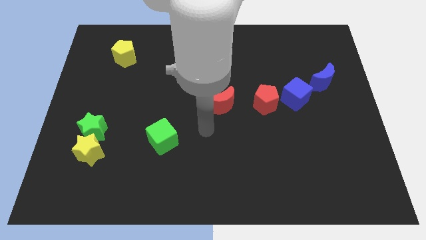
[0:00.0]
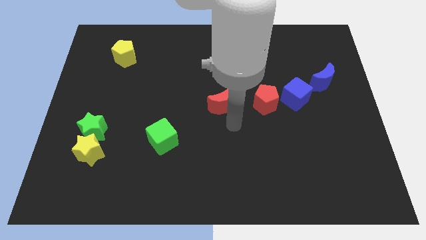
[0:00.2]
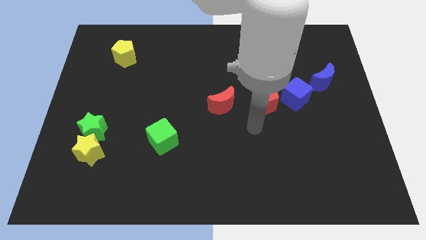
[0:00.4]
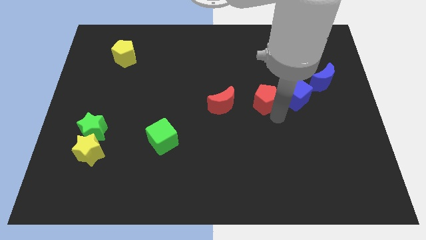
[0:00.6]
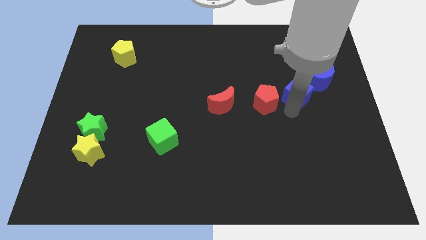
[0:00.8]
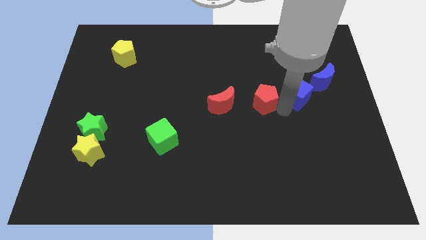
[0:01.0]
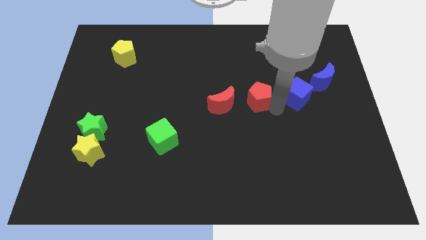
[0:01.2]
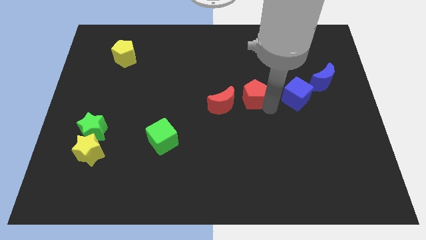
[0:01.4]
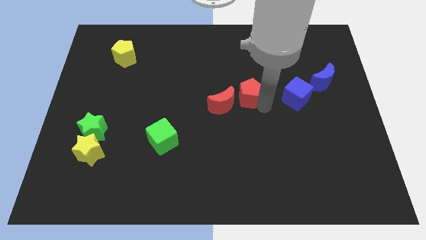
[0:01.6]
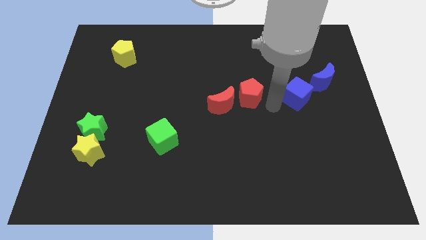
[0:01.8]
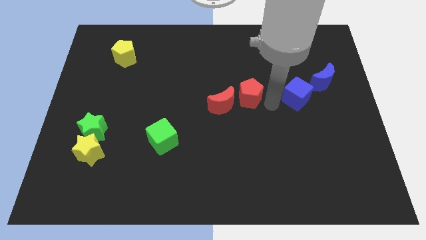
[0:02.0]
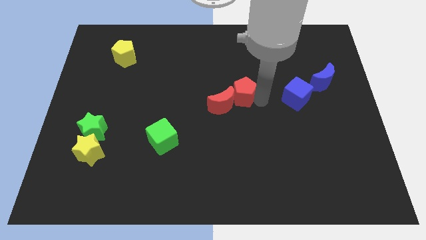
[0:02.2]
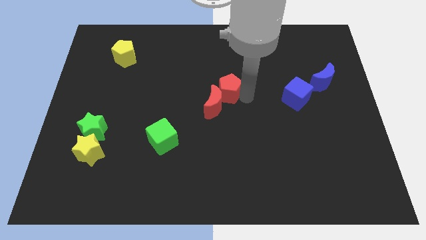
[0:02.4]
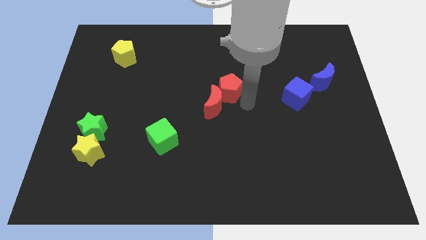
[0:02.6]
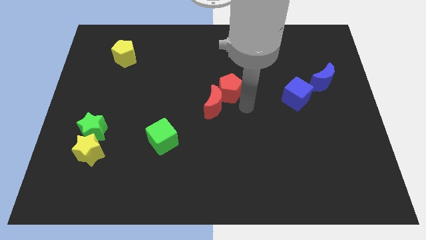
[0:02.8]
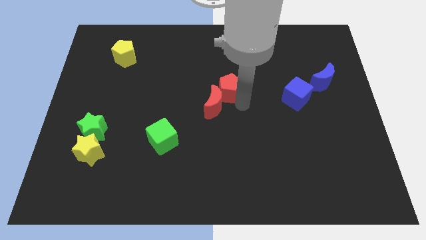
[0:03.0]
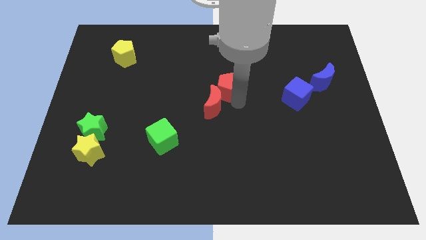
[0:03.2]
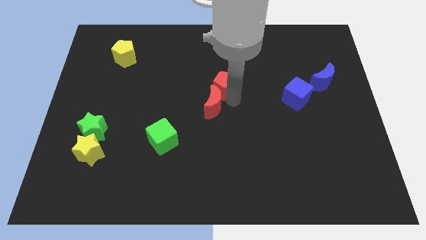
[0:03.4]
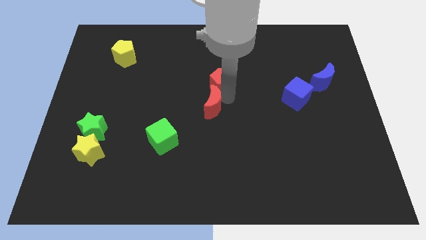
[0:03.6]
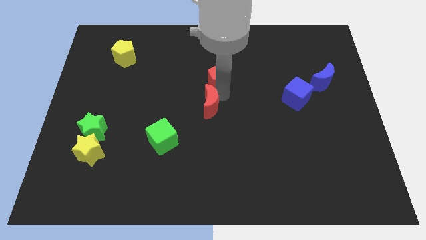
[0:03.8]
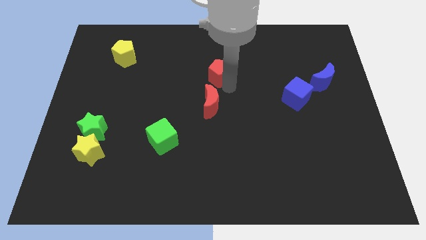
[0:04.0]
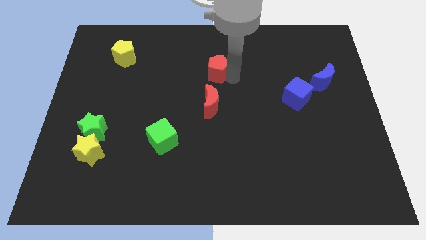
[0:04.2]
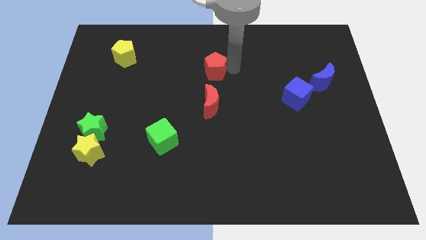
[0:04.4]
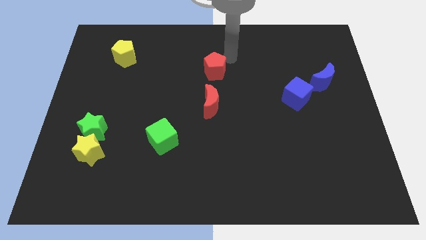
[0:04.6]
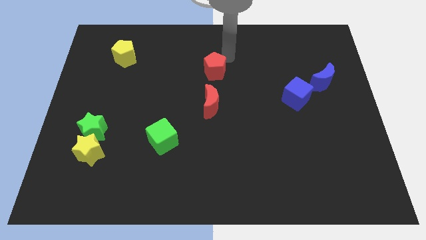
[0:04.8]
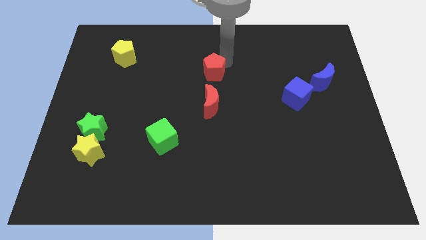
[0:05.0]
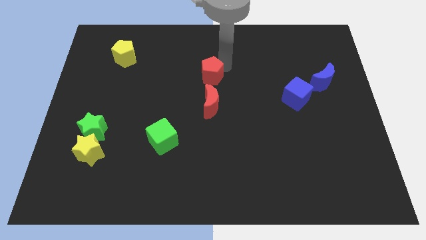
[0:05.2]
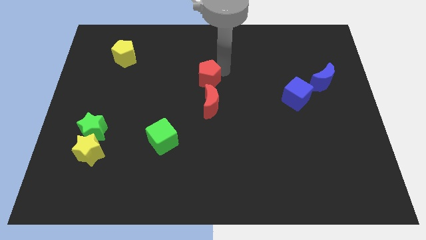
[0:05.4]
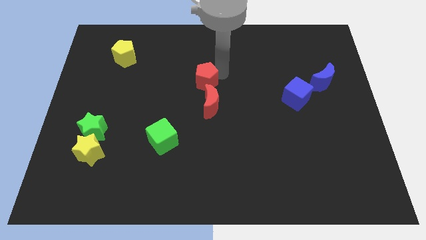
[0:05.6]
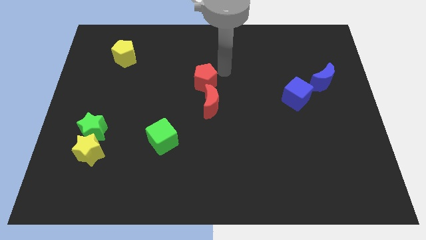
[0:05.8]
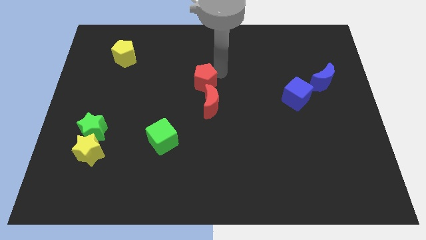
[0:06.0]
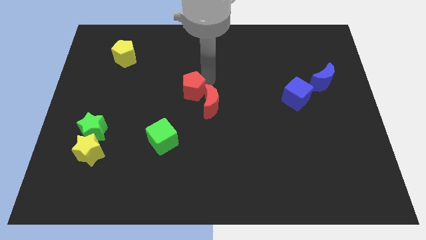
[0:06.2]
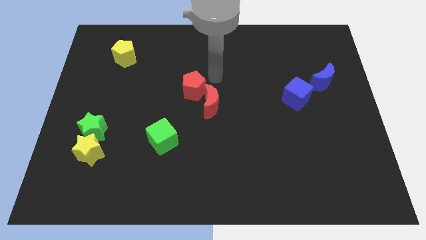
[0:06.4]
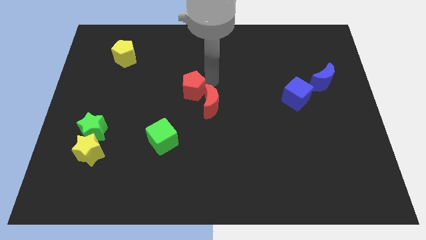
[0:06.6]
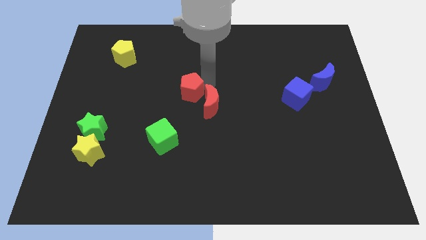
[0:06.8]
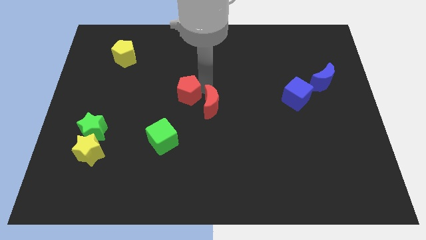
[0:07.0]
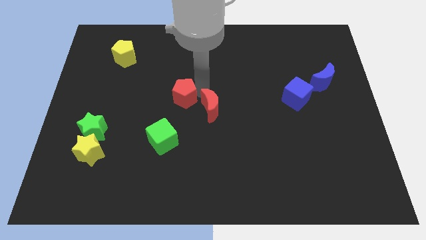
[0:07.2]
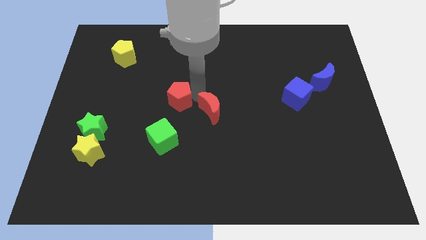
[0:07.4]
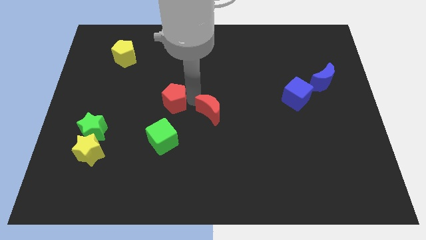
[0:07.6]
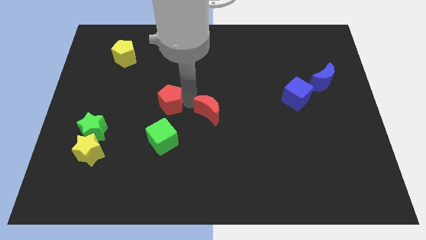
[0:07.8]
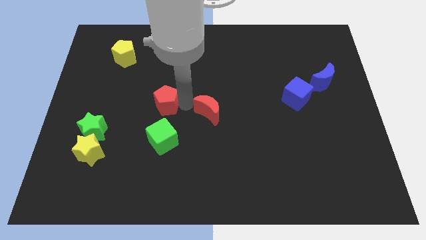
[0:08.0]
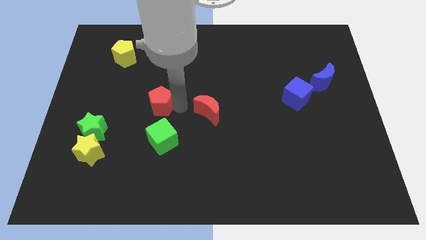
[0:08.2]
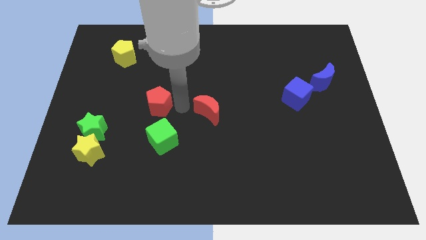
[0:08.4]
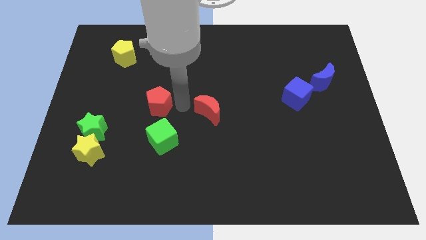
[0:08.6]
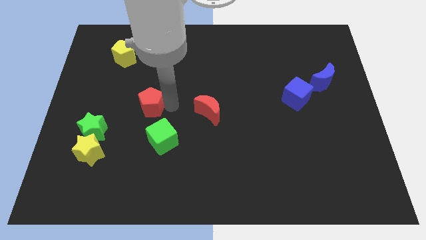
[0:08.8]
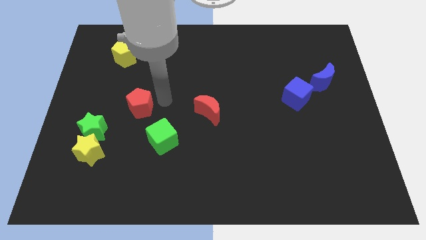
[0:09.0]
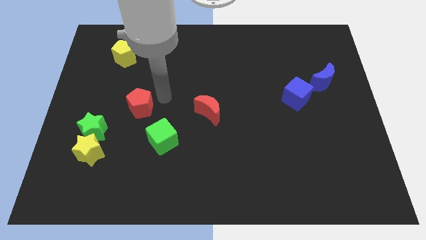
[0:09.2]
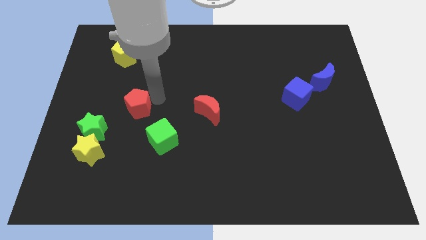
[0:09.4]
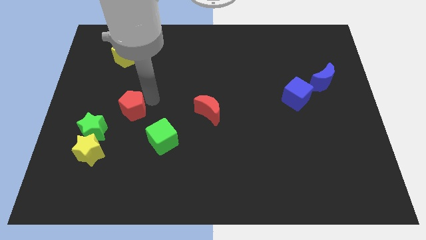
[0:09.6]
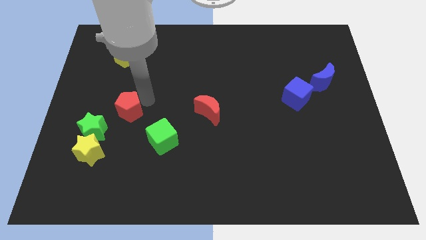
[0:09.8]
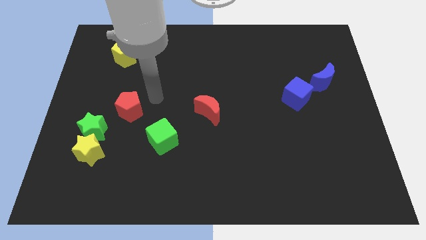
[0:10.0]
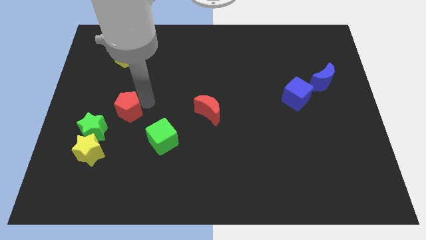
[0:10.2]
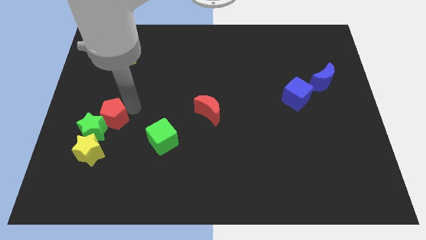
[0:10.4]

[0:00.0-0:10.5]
push the red pentagon close to the green star

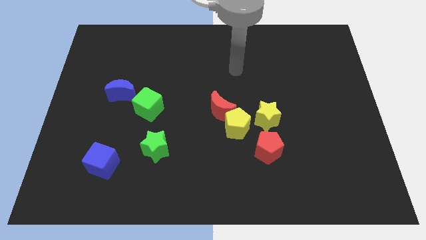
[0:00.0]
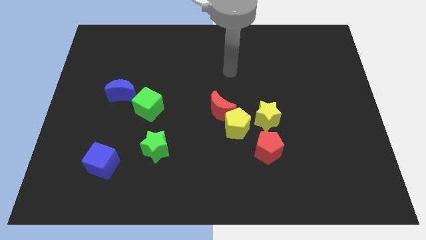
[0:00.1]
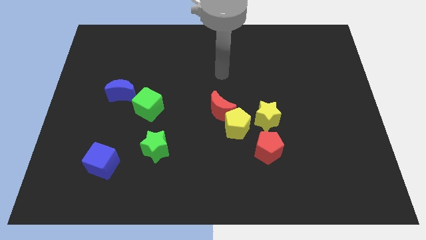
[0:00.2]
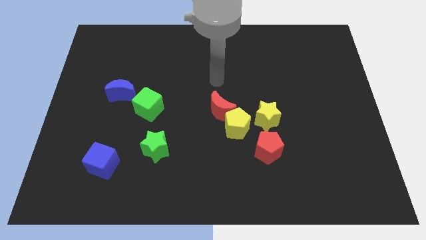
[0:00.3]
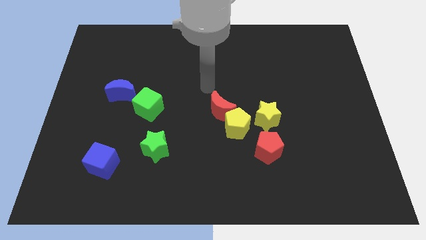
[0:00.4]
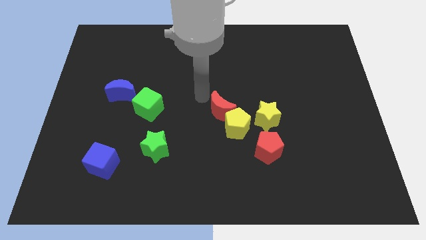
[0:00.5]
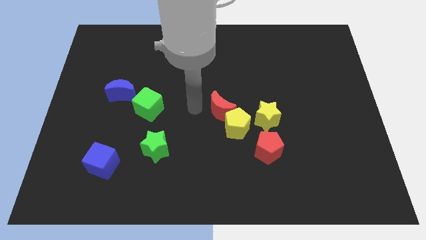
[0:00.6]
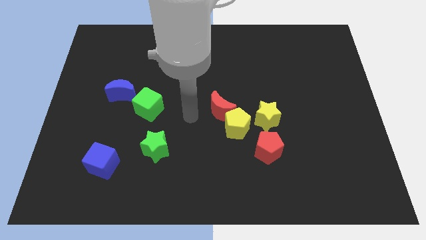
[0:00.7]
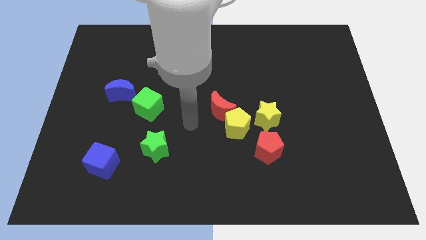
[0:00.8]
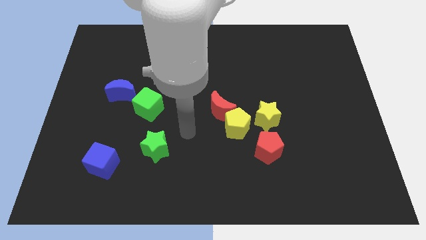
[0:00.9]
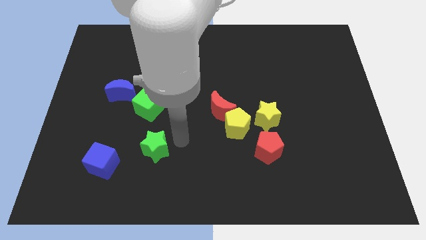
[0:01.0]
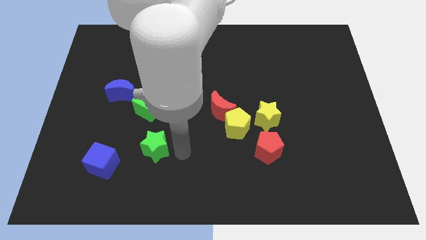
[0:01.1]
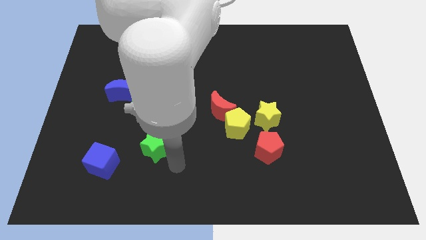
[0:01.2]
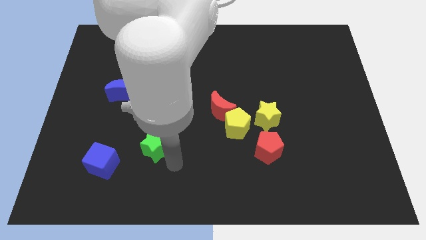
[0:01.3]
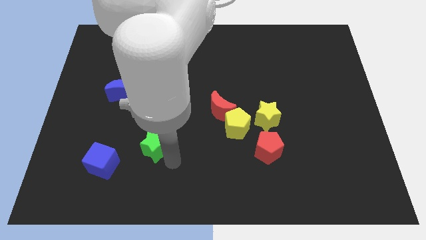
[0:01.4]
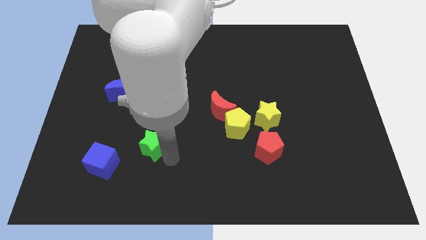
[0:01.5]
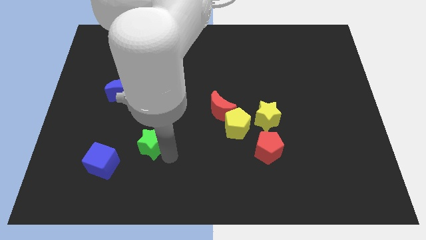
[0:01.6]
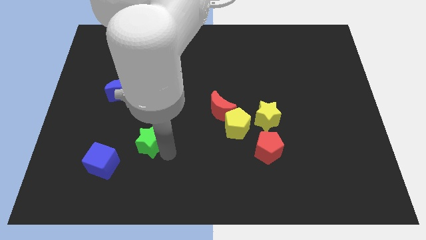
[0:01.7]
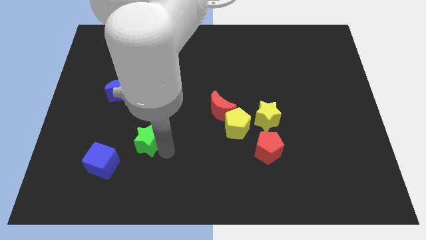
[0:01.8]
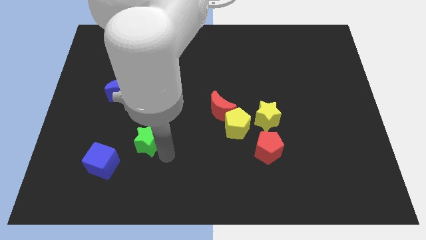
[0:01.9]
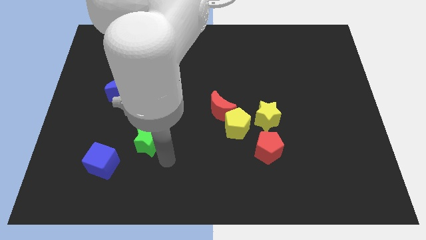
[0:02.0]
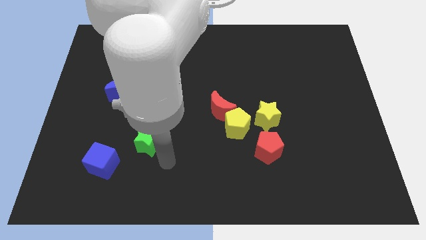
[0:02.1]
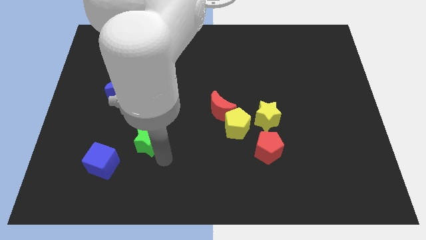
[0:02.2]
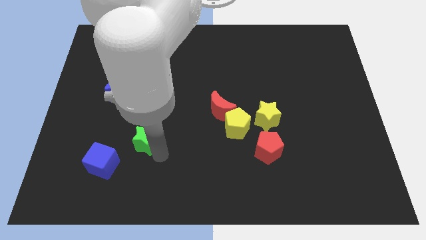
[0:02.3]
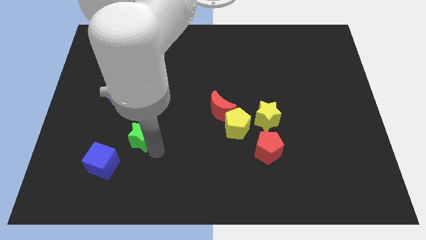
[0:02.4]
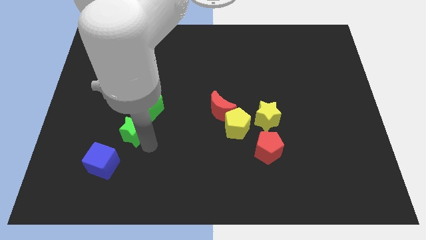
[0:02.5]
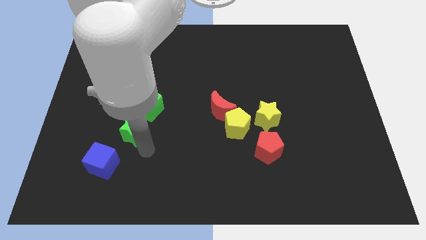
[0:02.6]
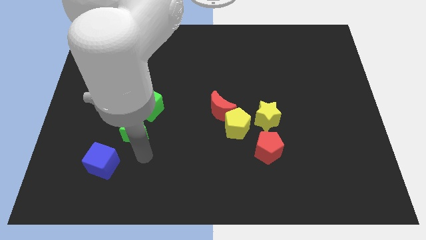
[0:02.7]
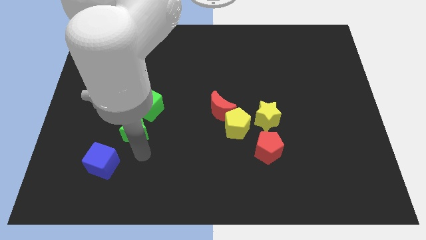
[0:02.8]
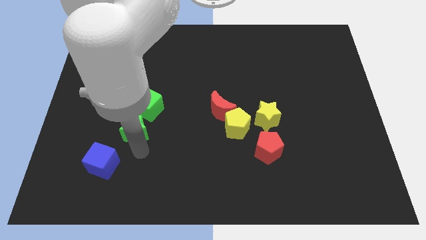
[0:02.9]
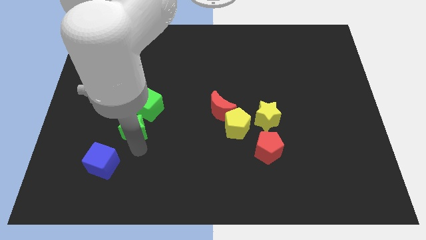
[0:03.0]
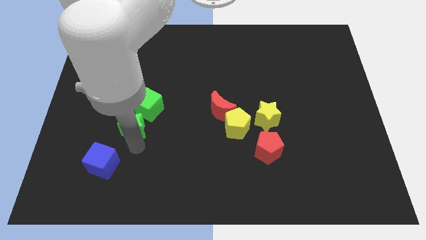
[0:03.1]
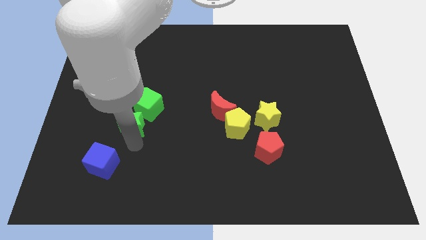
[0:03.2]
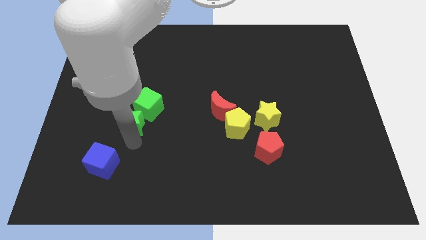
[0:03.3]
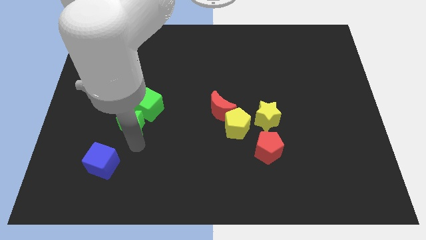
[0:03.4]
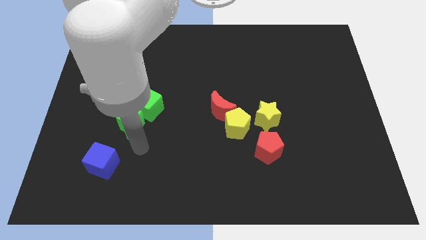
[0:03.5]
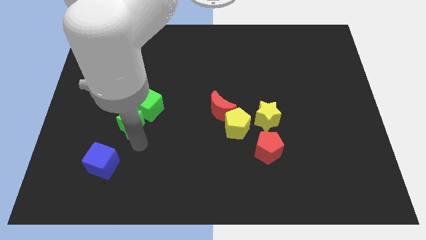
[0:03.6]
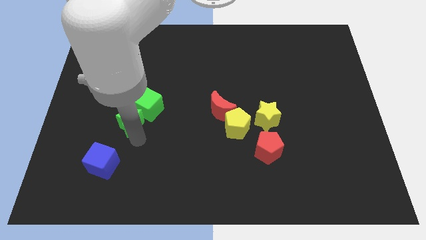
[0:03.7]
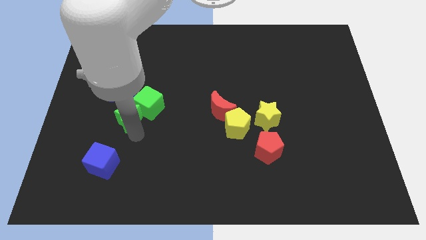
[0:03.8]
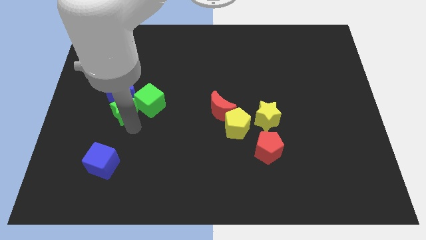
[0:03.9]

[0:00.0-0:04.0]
put the green star towards the blue moon
